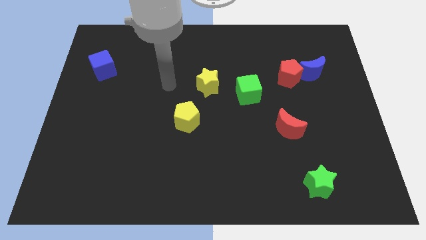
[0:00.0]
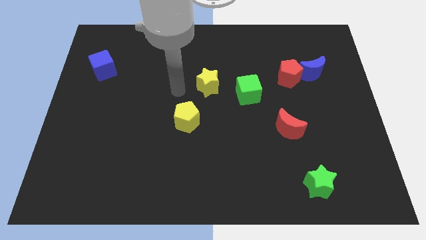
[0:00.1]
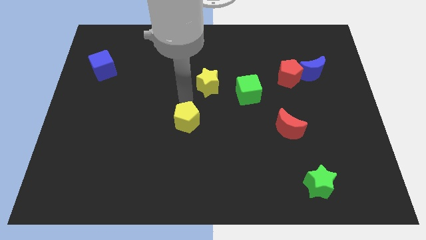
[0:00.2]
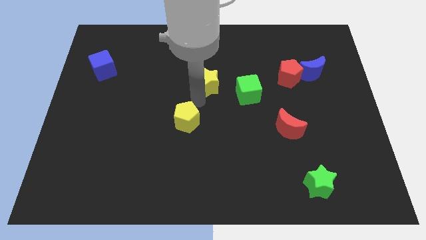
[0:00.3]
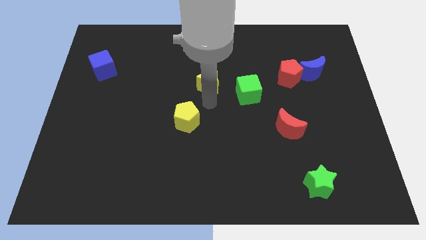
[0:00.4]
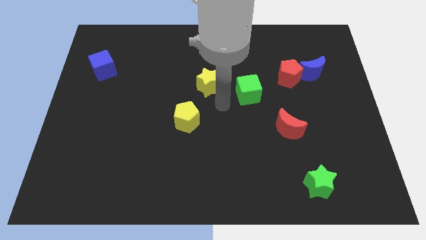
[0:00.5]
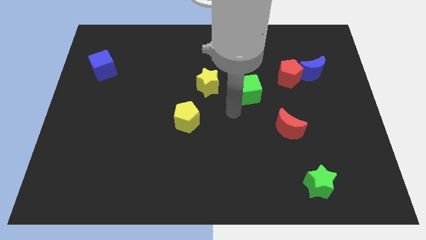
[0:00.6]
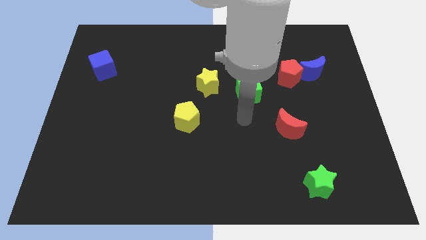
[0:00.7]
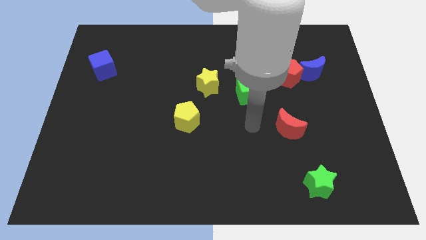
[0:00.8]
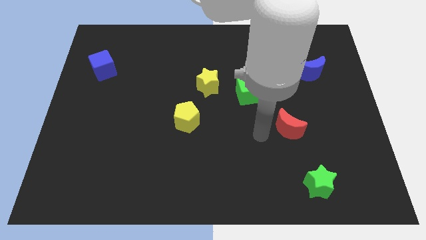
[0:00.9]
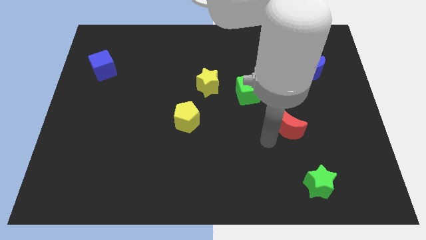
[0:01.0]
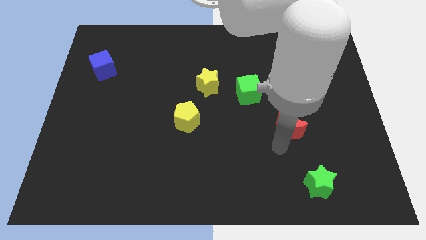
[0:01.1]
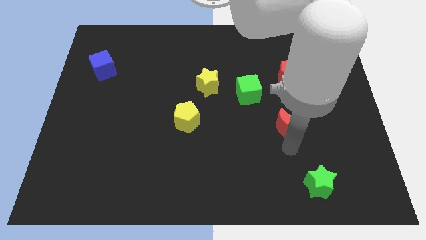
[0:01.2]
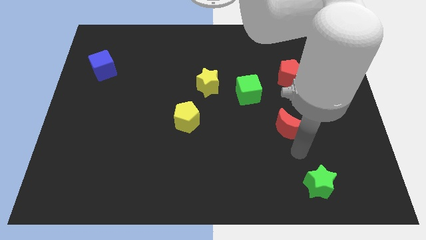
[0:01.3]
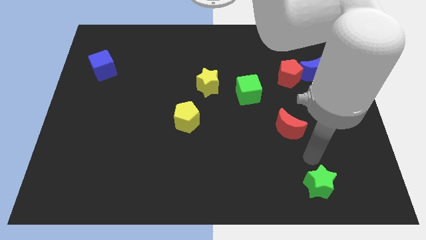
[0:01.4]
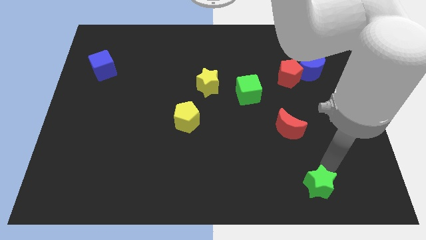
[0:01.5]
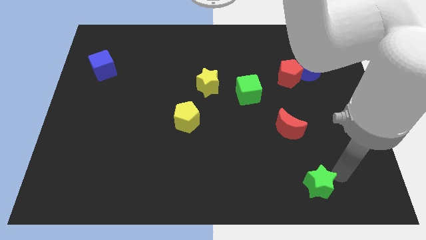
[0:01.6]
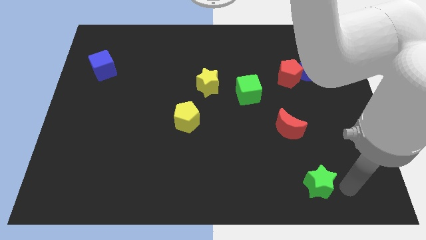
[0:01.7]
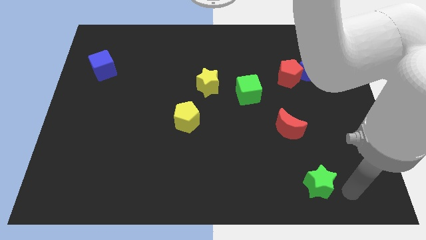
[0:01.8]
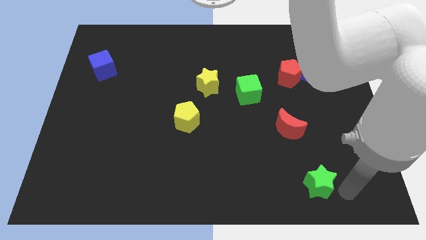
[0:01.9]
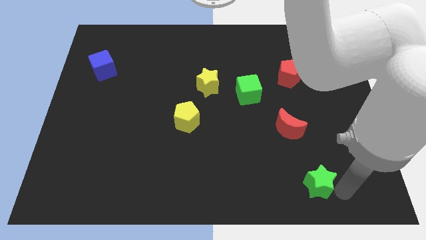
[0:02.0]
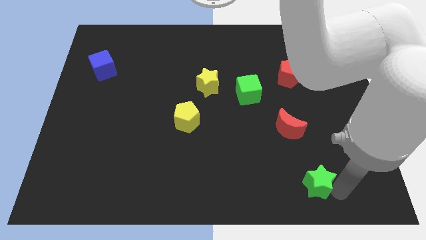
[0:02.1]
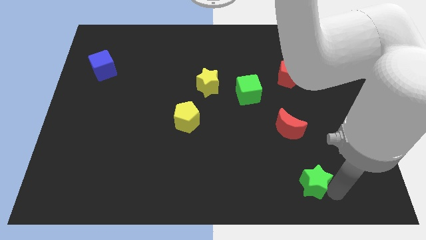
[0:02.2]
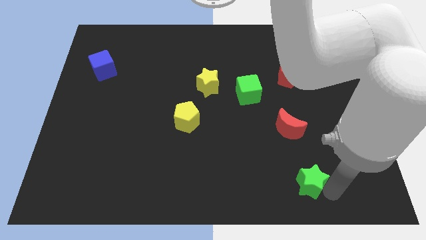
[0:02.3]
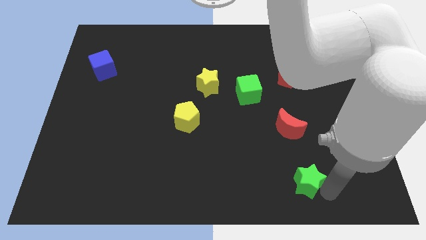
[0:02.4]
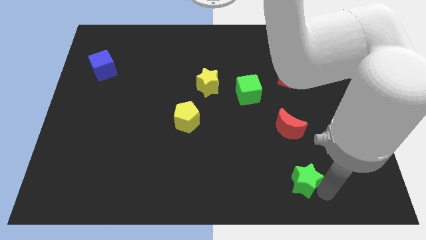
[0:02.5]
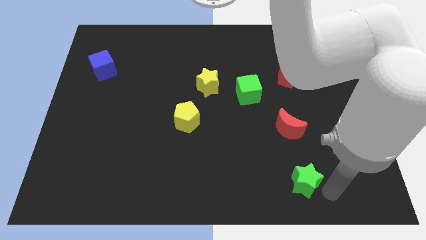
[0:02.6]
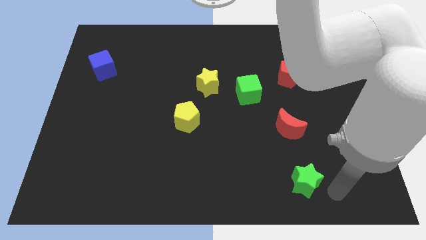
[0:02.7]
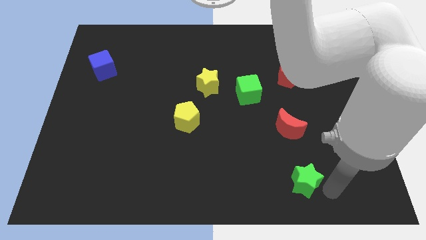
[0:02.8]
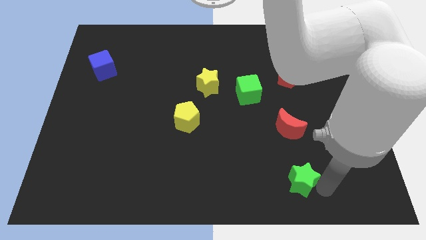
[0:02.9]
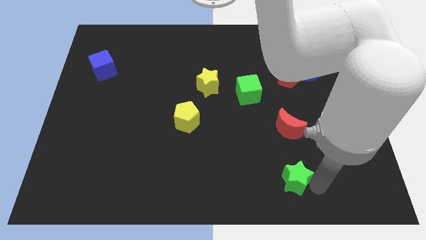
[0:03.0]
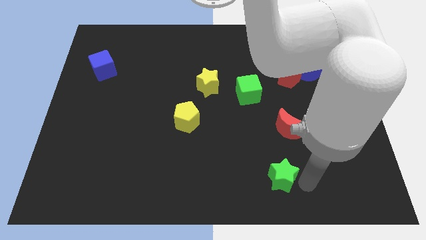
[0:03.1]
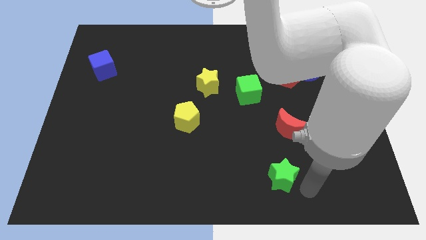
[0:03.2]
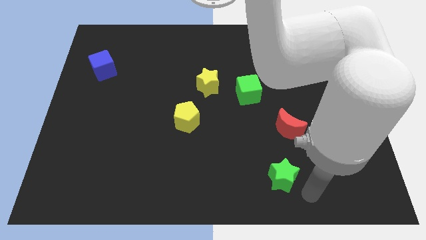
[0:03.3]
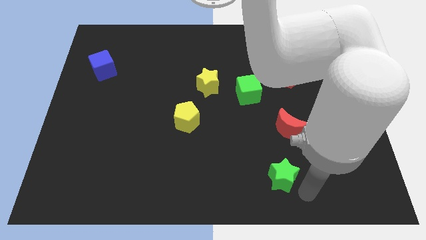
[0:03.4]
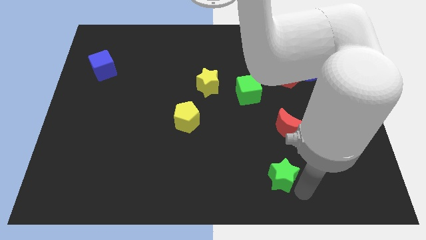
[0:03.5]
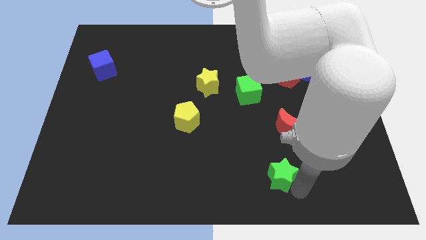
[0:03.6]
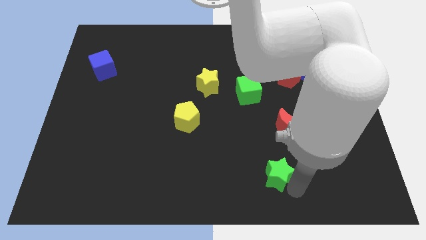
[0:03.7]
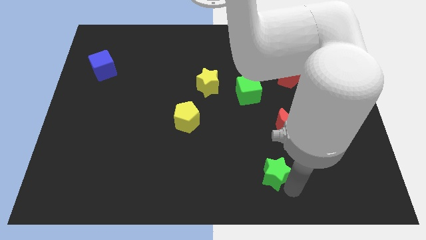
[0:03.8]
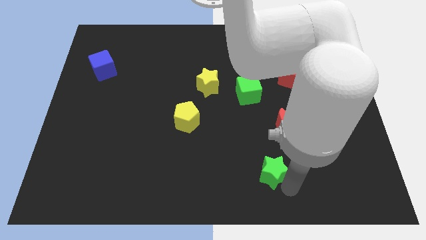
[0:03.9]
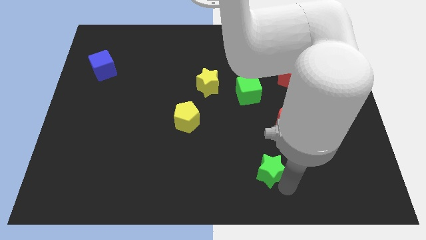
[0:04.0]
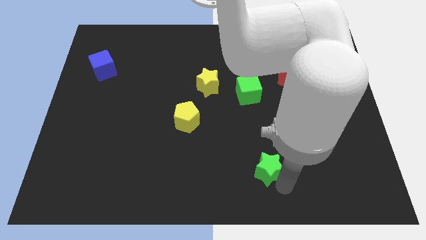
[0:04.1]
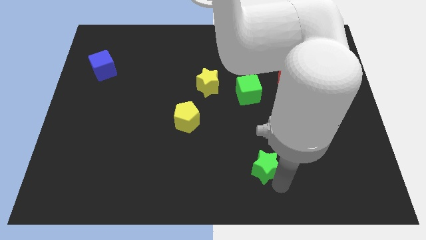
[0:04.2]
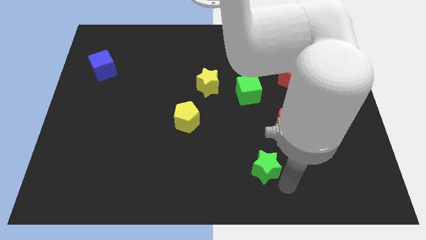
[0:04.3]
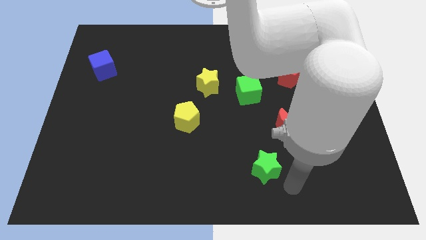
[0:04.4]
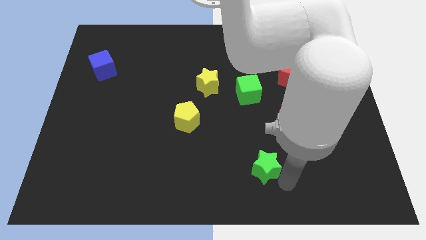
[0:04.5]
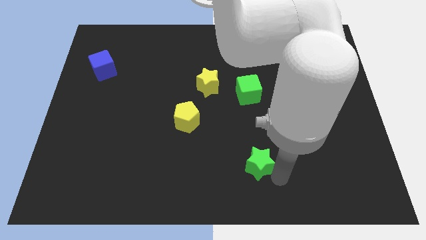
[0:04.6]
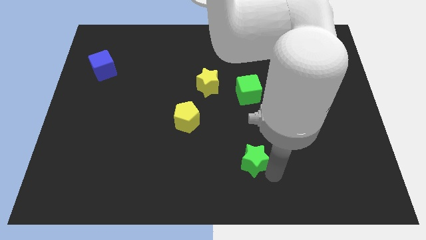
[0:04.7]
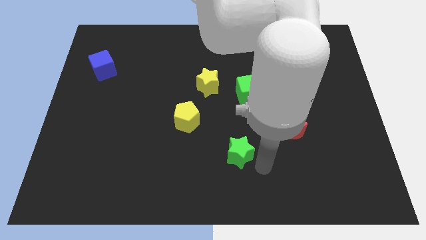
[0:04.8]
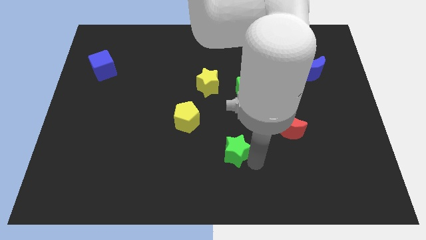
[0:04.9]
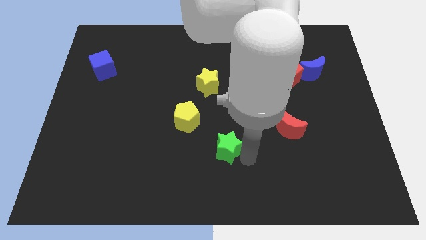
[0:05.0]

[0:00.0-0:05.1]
move the green star to the bottom right side of the yellow pentagon

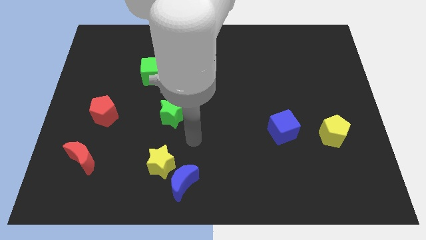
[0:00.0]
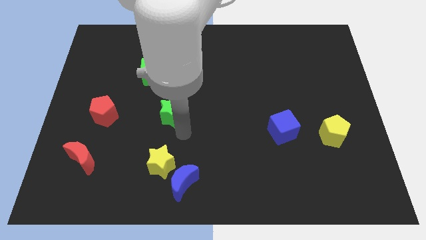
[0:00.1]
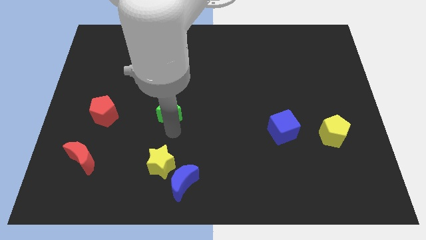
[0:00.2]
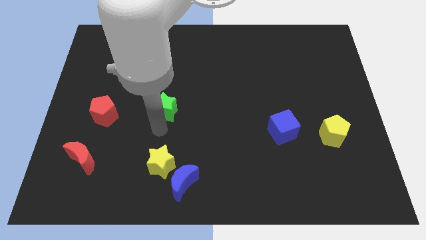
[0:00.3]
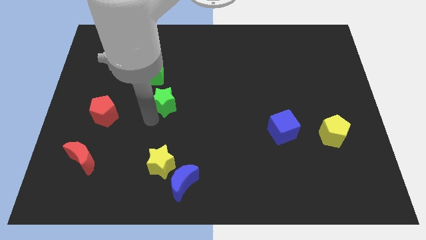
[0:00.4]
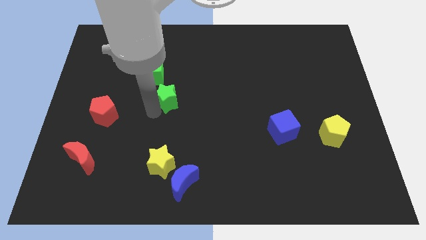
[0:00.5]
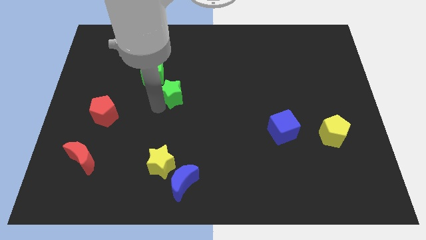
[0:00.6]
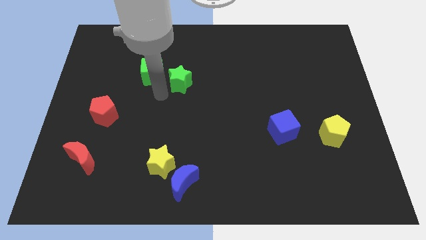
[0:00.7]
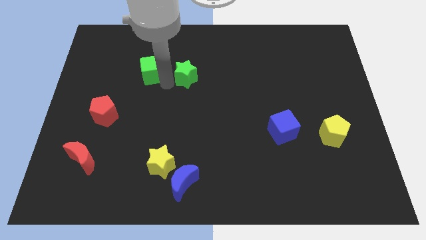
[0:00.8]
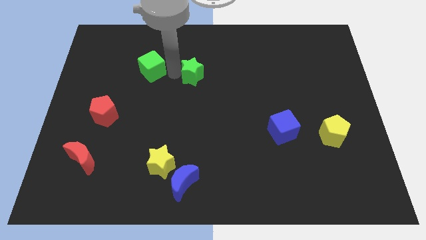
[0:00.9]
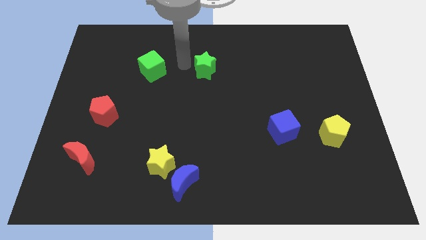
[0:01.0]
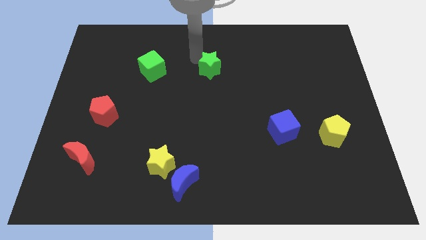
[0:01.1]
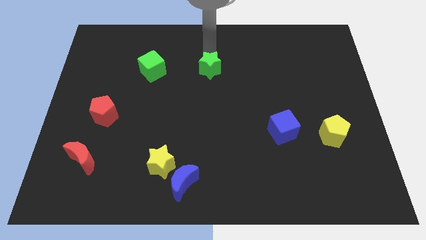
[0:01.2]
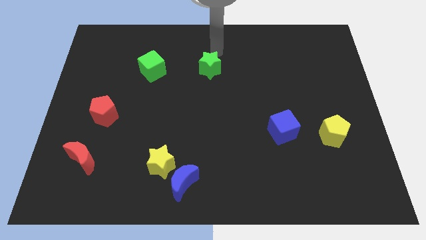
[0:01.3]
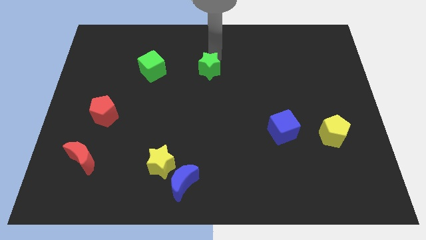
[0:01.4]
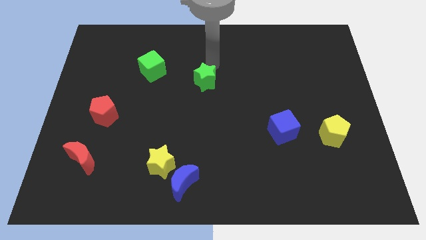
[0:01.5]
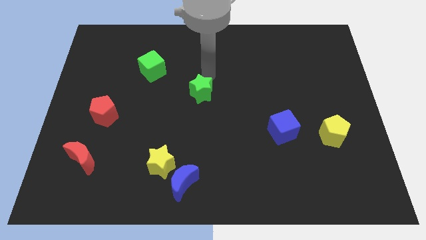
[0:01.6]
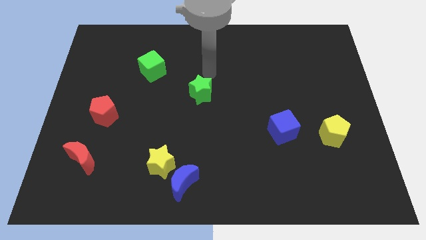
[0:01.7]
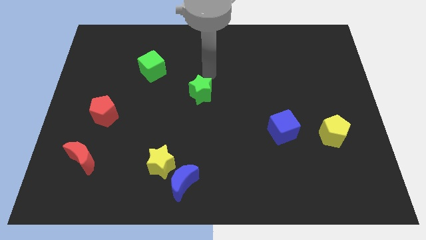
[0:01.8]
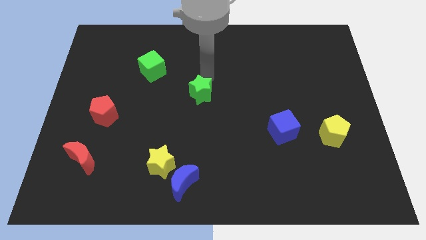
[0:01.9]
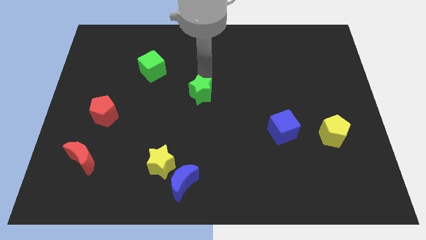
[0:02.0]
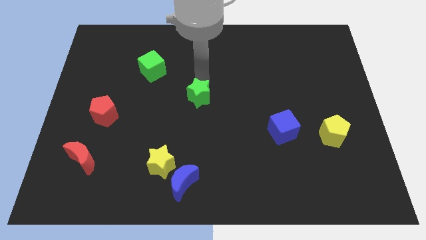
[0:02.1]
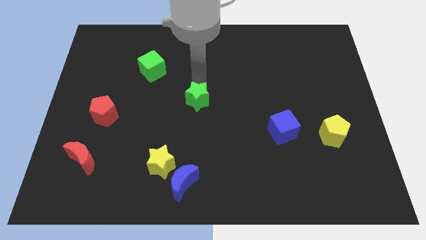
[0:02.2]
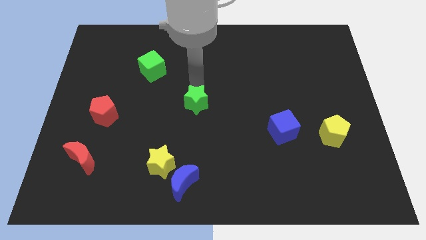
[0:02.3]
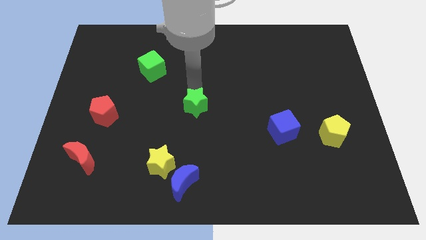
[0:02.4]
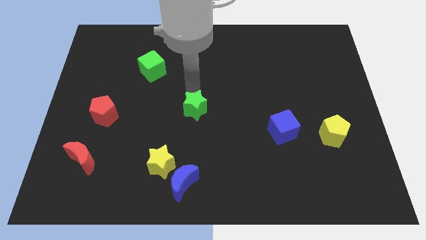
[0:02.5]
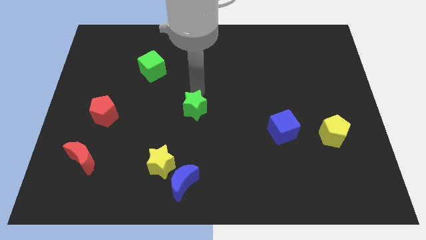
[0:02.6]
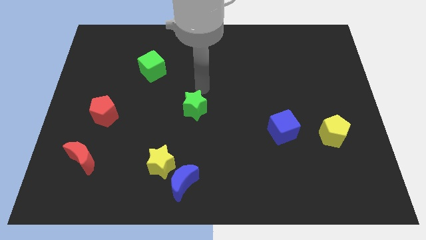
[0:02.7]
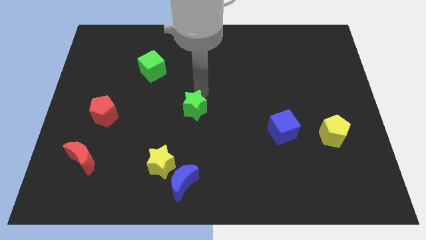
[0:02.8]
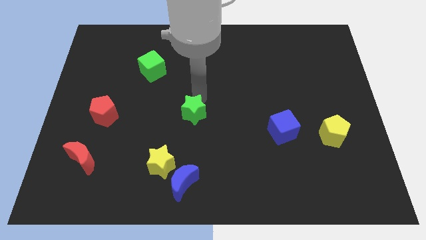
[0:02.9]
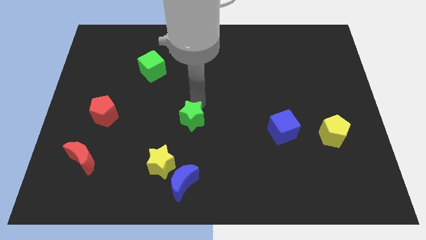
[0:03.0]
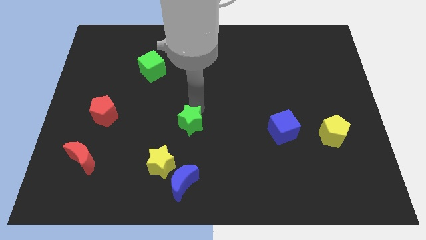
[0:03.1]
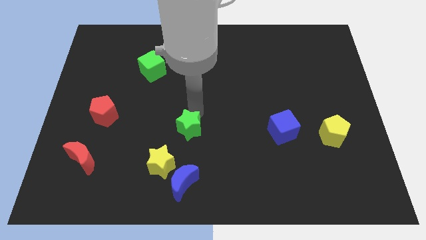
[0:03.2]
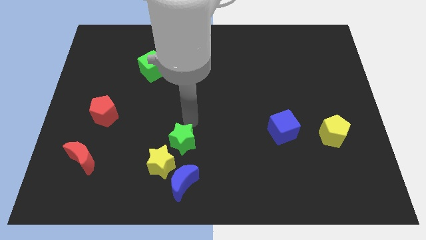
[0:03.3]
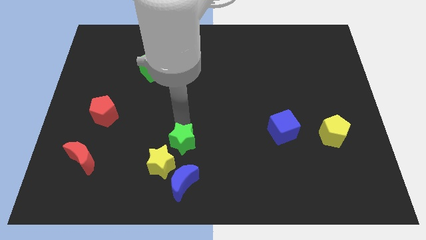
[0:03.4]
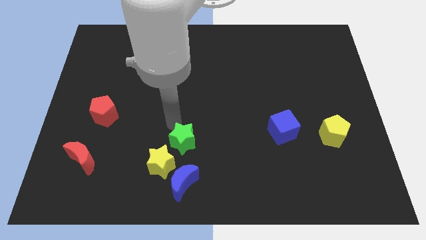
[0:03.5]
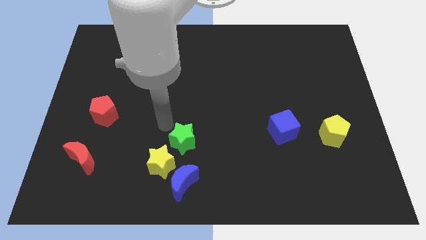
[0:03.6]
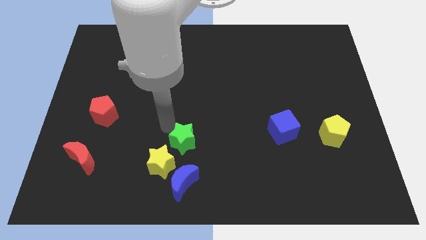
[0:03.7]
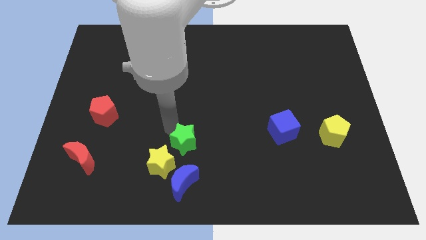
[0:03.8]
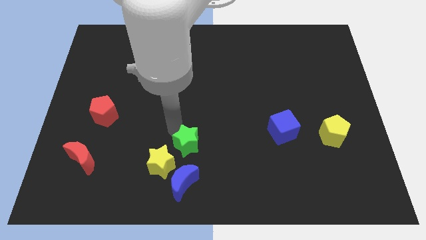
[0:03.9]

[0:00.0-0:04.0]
put the green star to the right side of the yellow star
